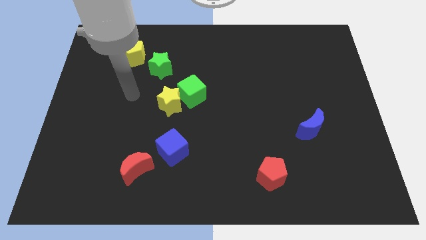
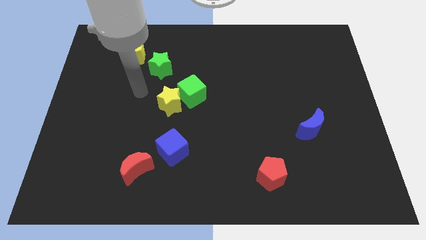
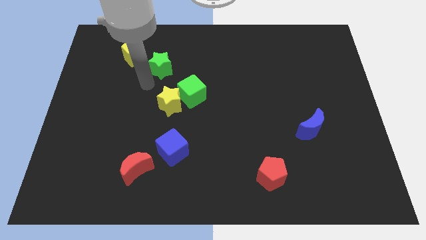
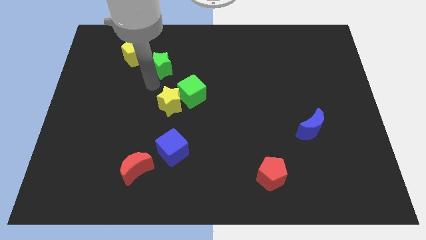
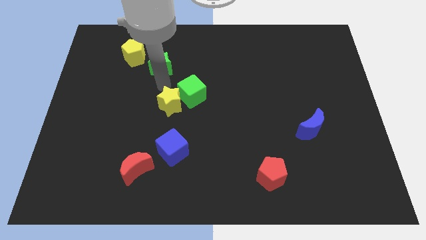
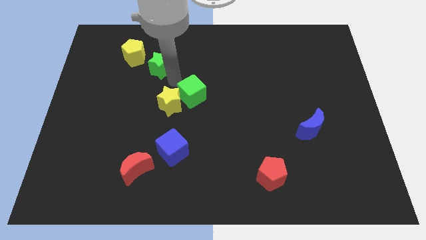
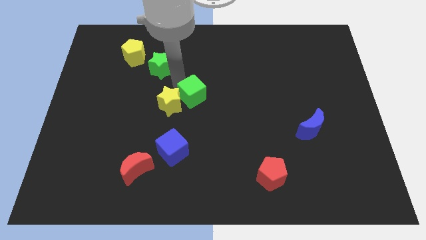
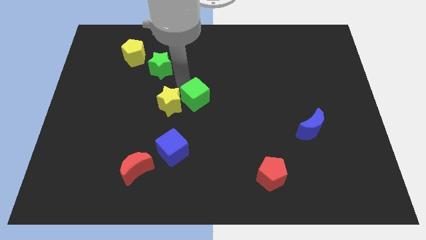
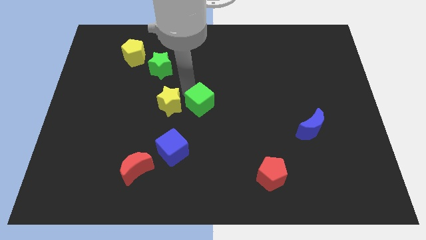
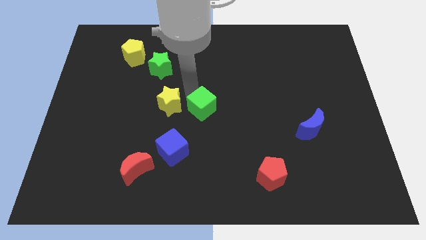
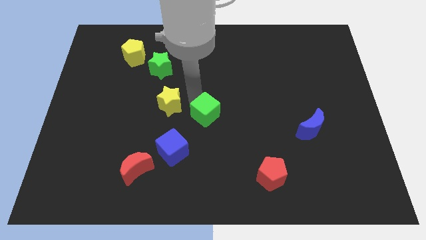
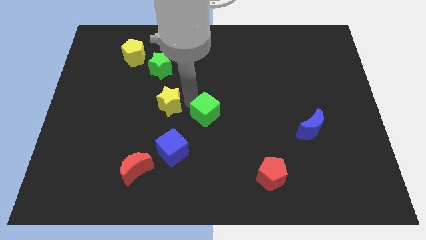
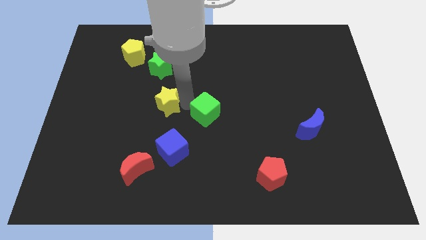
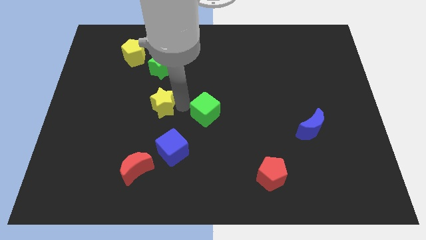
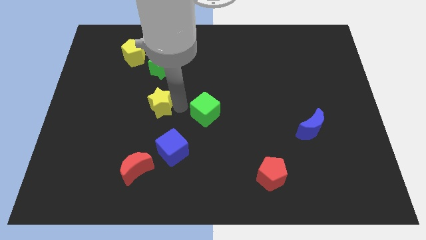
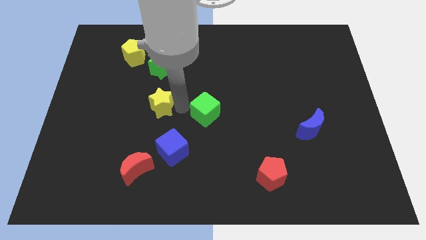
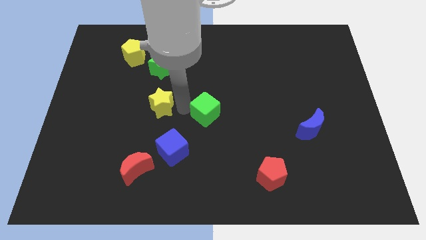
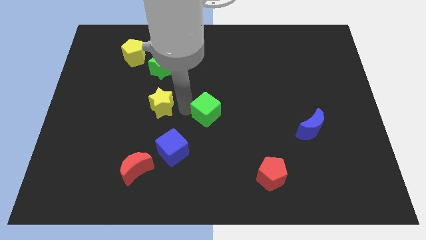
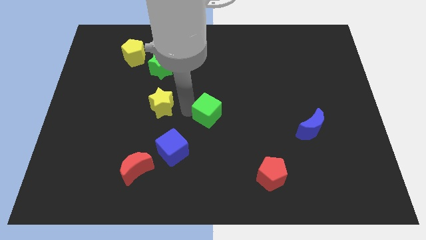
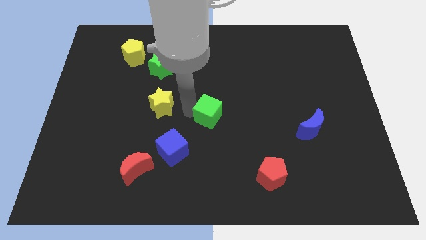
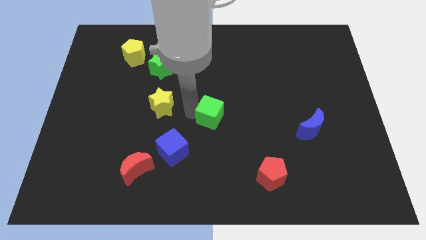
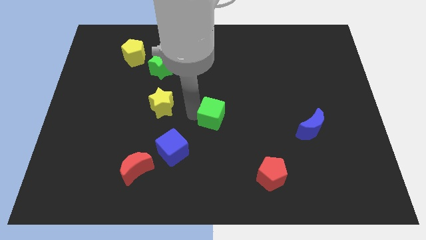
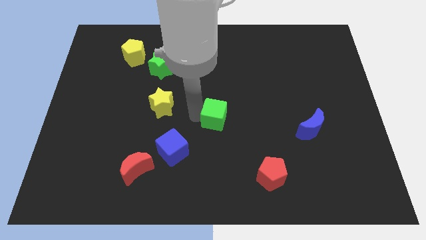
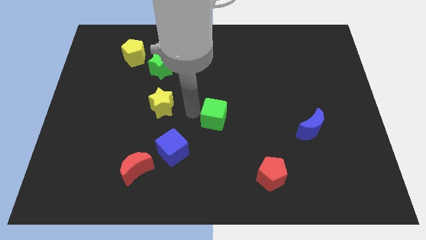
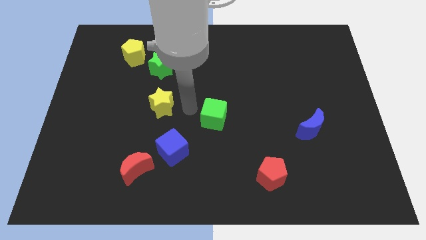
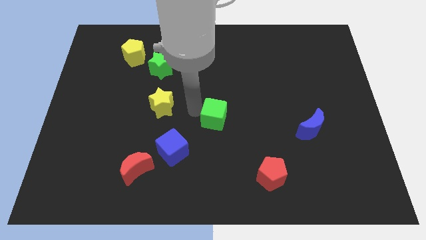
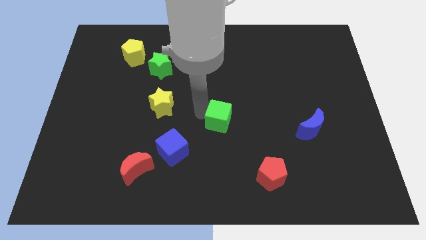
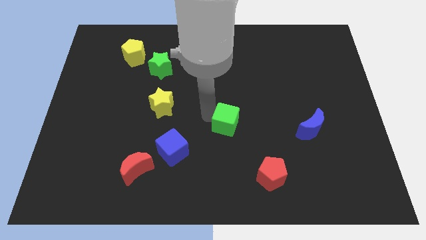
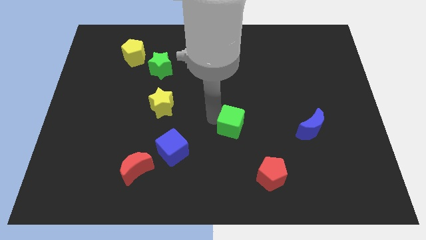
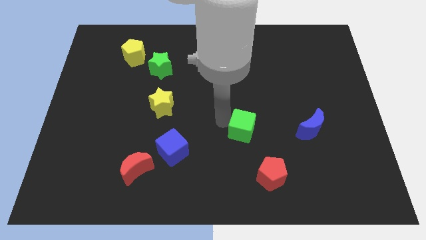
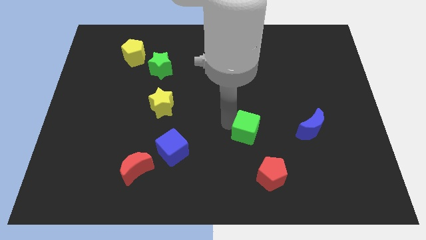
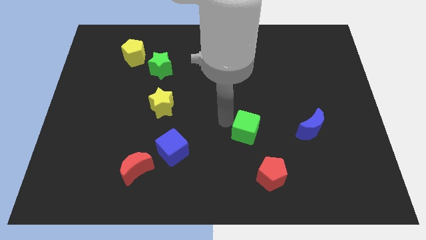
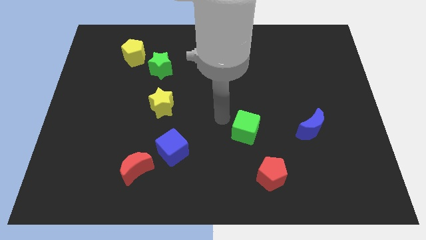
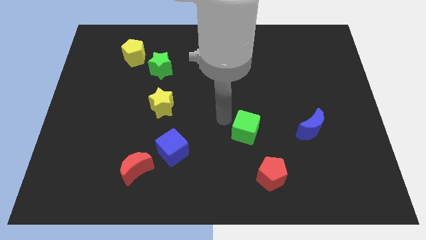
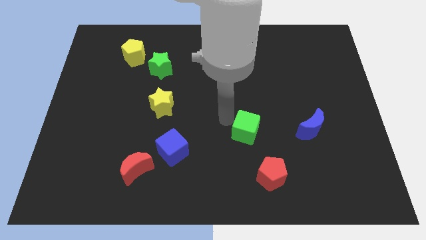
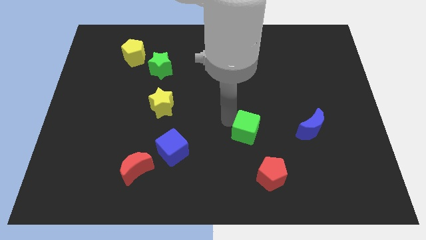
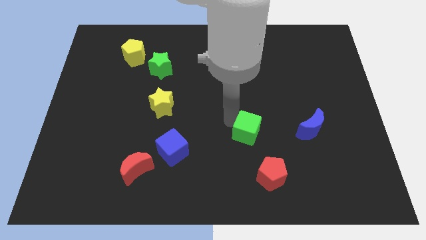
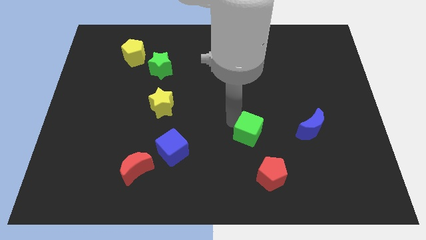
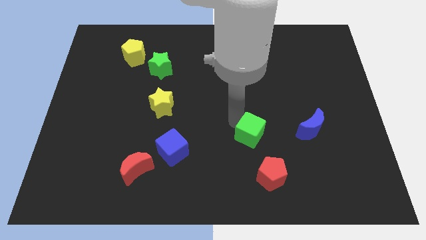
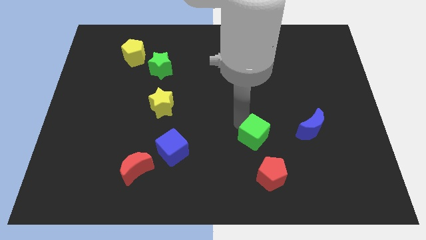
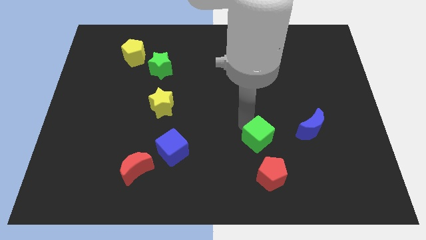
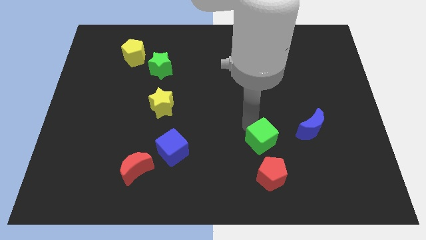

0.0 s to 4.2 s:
move the green cube down and then to the right

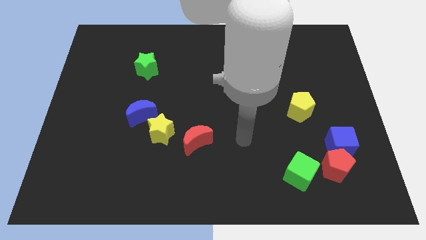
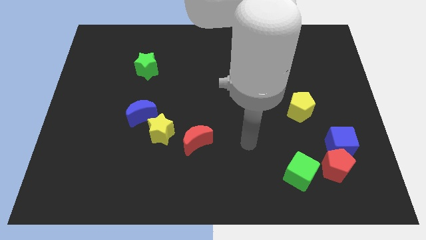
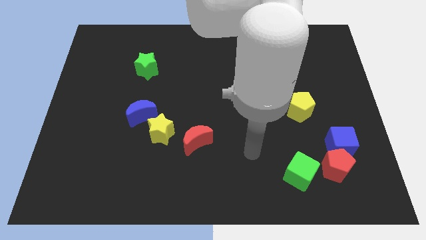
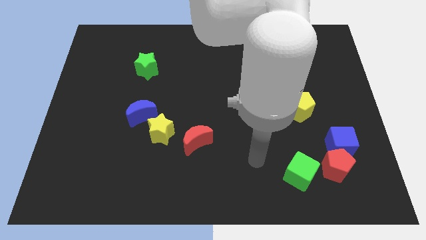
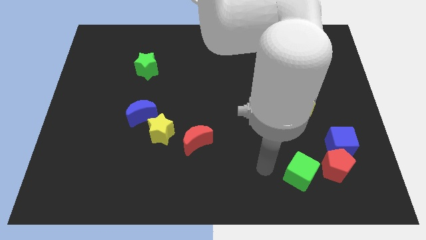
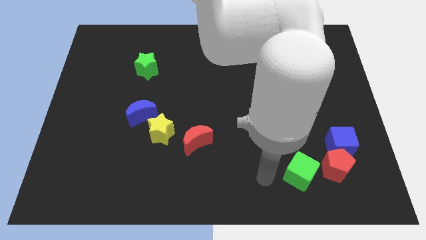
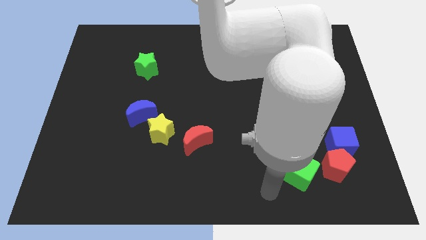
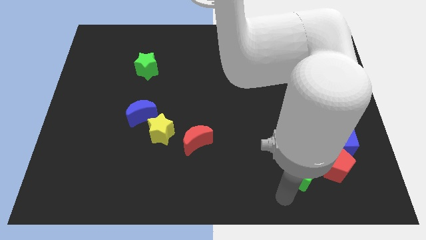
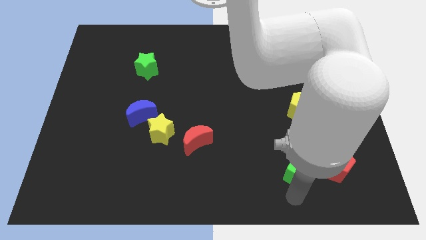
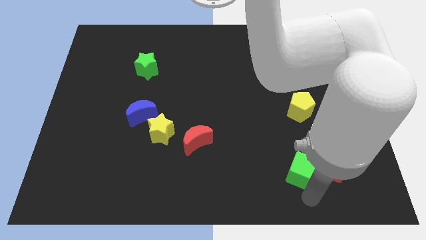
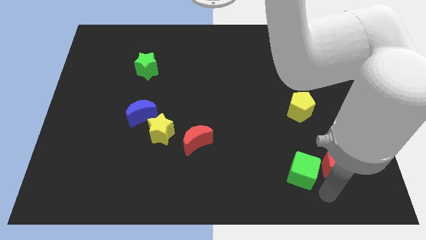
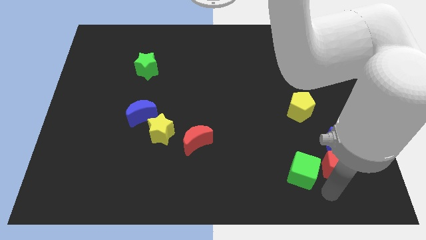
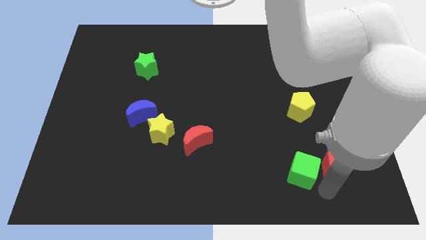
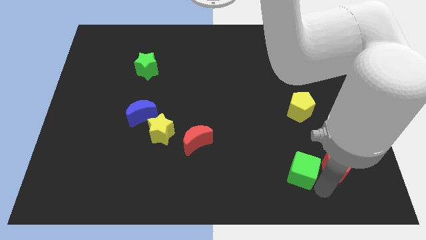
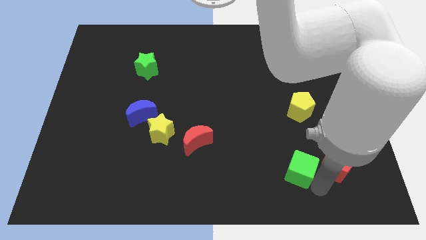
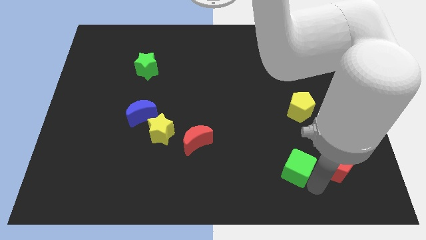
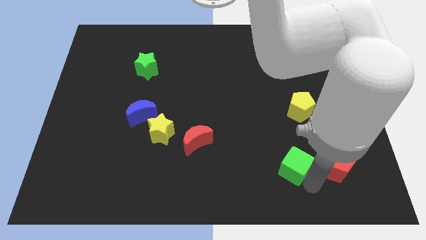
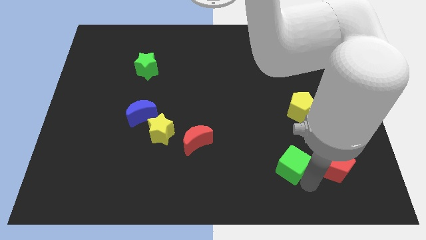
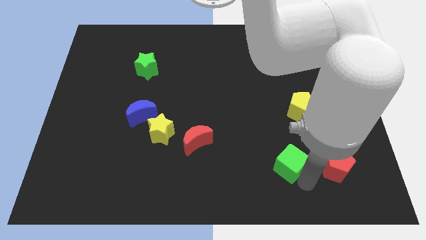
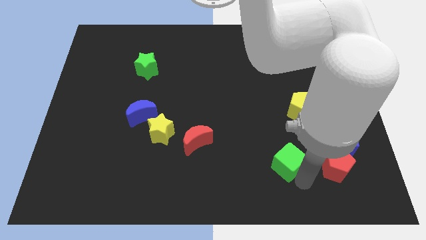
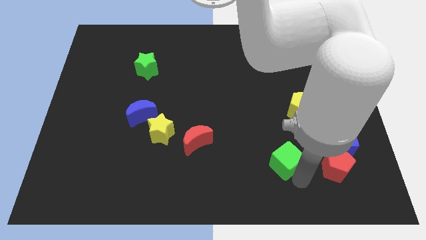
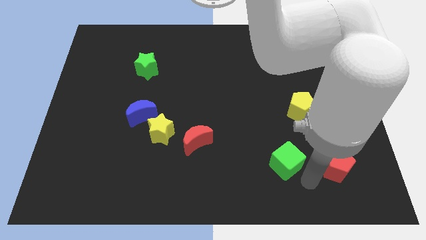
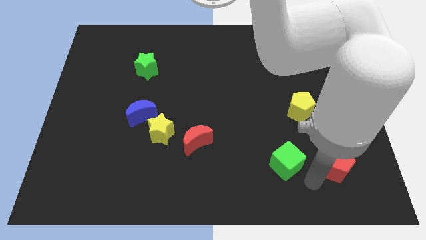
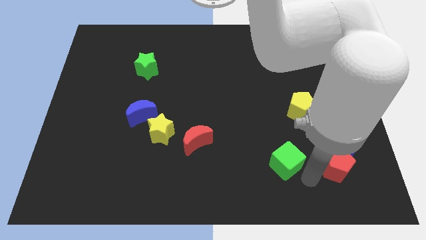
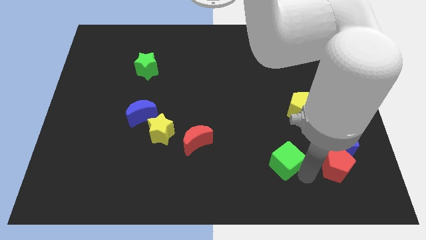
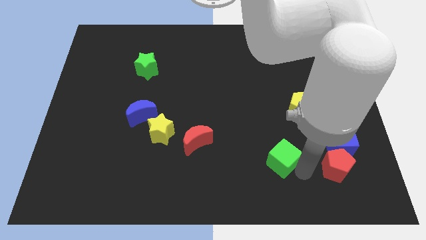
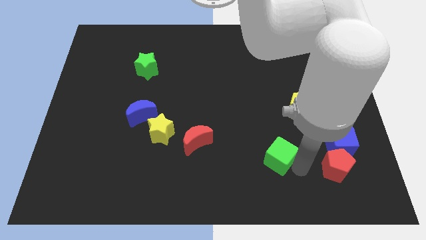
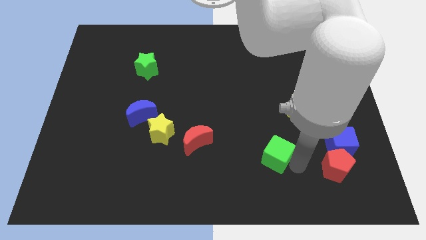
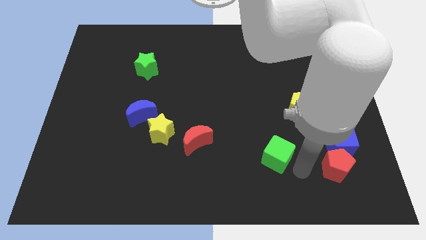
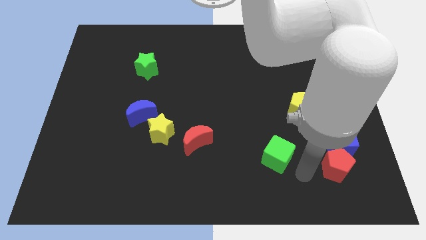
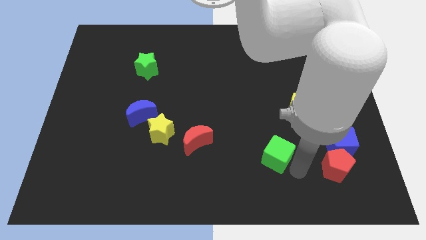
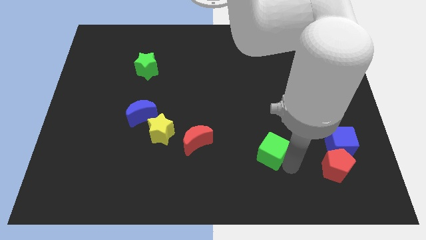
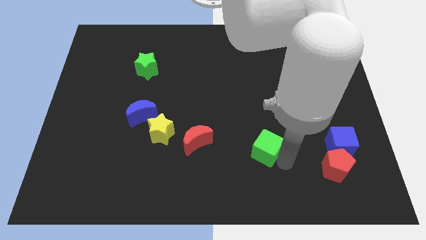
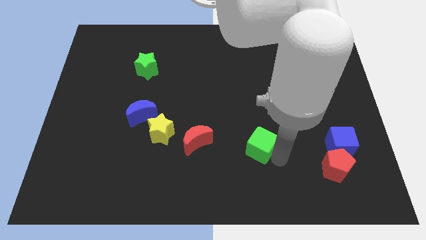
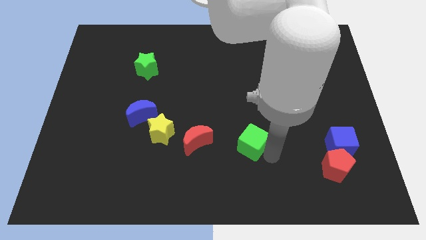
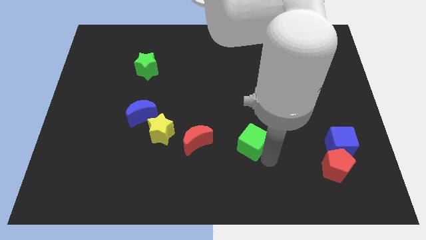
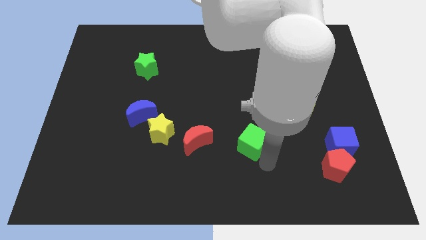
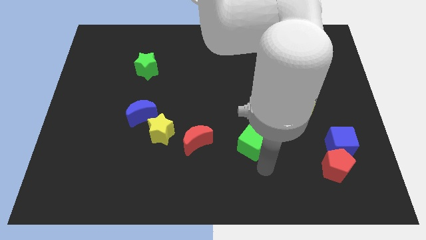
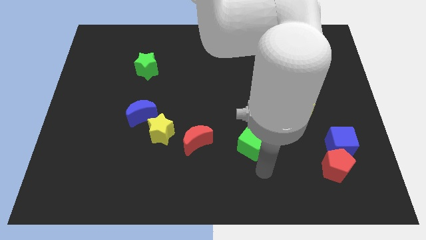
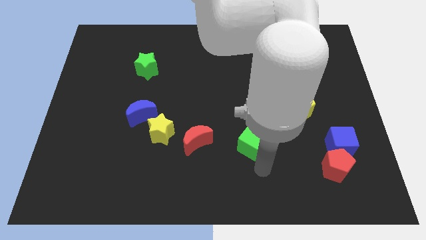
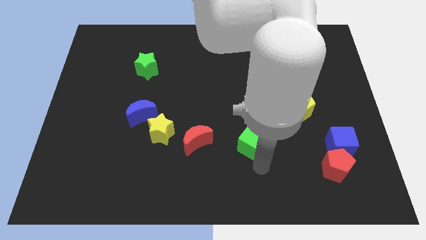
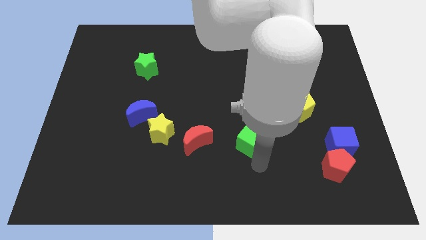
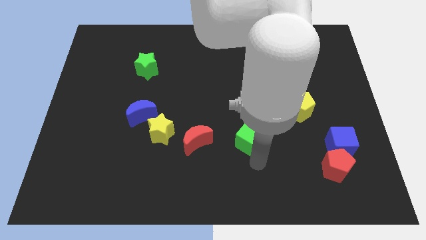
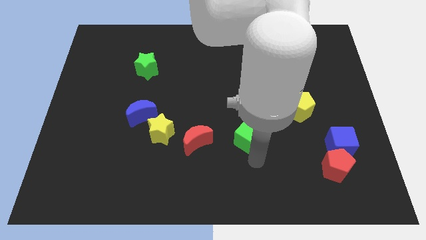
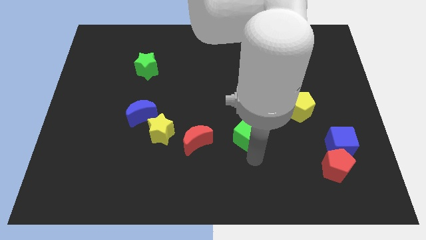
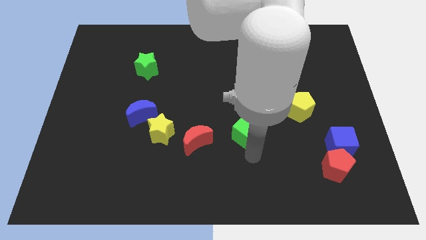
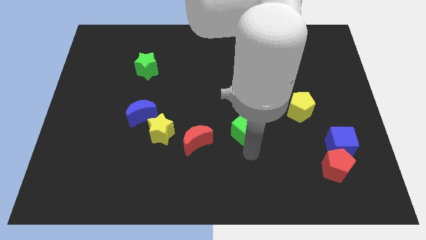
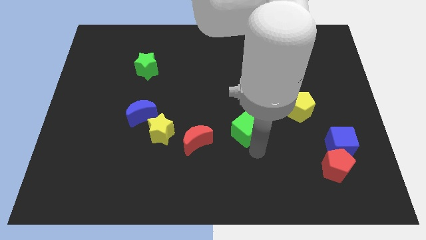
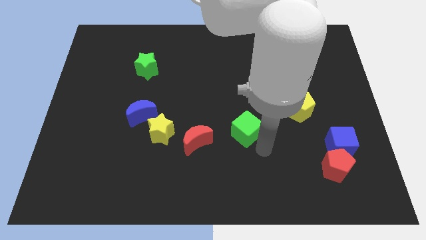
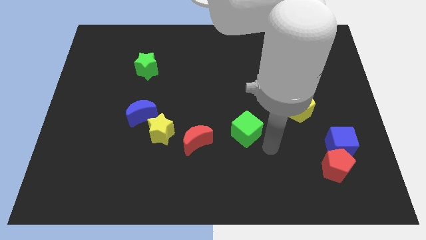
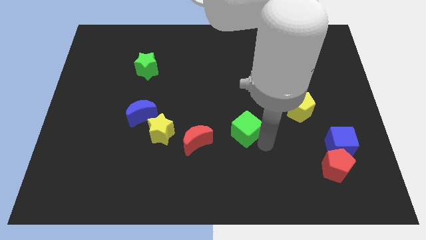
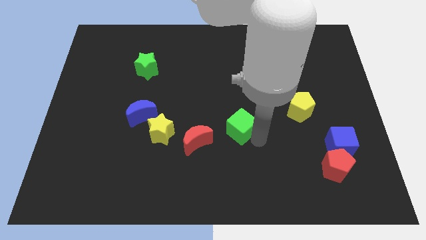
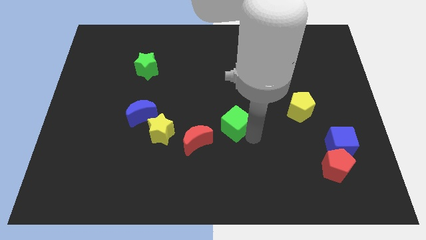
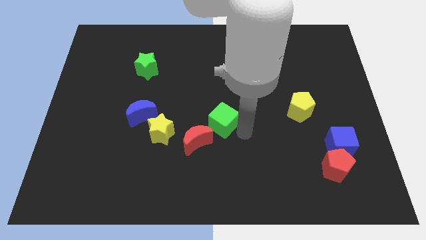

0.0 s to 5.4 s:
slide the green cube upwards and then left
